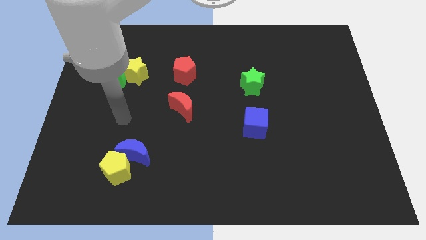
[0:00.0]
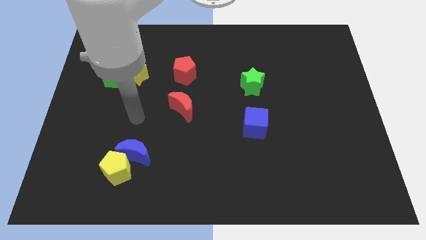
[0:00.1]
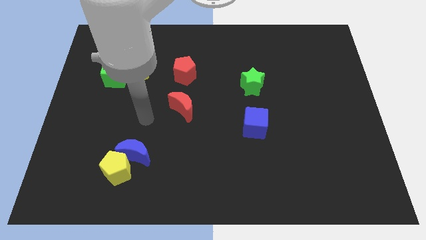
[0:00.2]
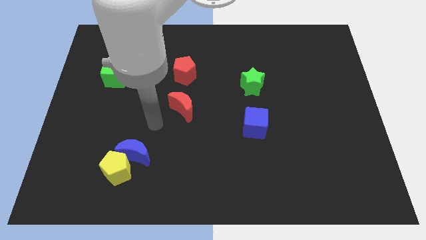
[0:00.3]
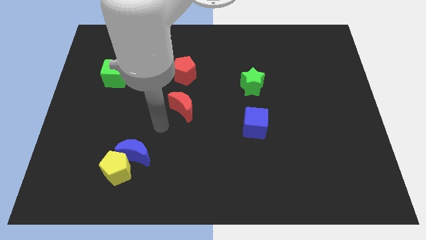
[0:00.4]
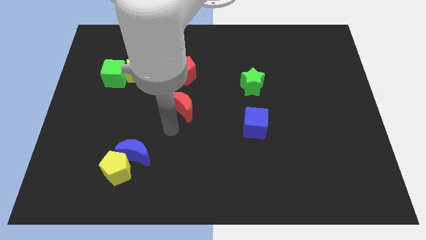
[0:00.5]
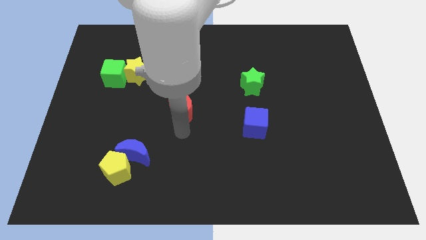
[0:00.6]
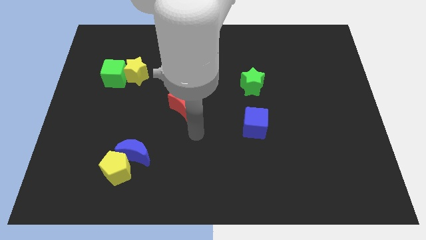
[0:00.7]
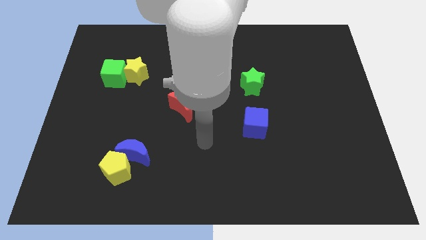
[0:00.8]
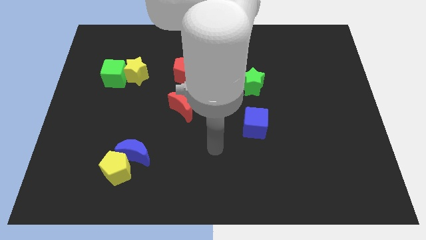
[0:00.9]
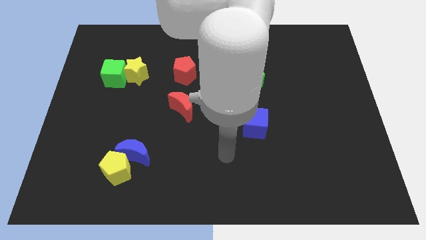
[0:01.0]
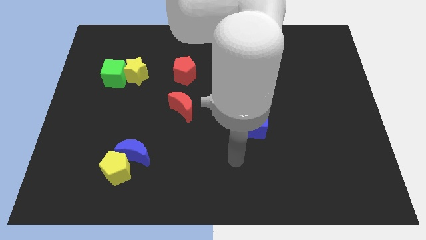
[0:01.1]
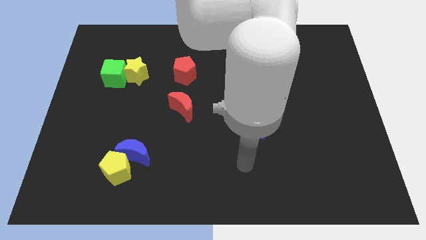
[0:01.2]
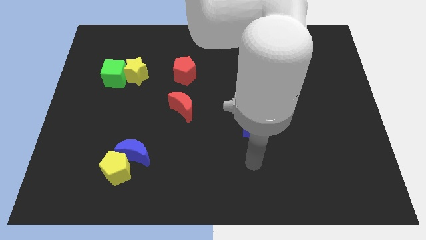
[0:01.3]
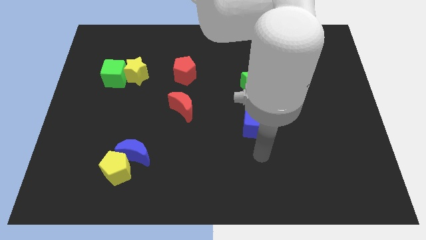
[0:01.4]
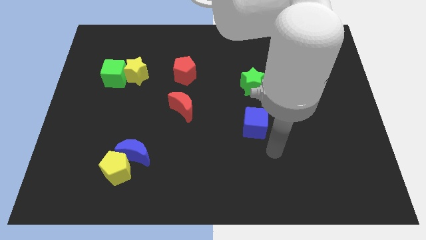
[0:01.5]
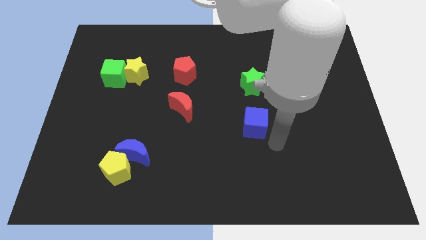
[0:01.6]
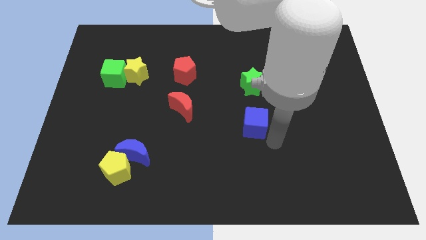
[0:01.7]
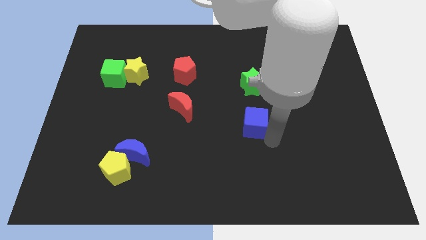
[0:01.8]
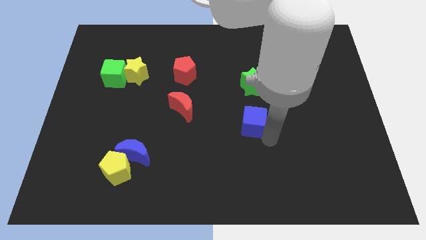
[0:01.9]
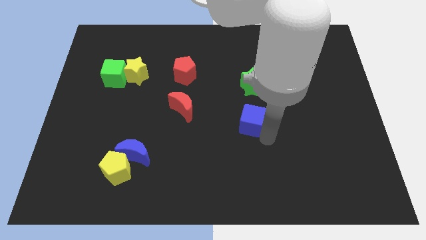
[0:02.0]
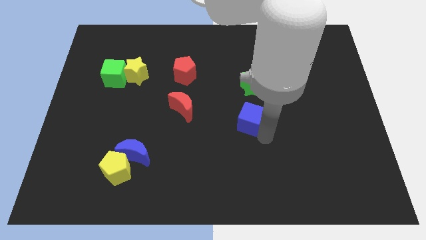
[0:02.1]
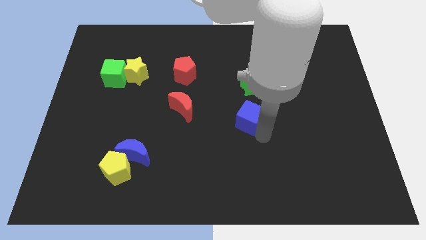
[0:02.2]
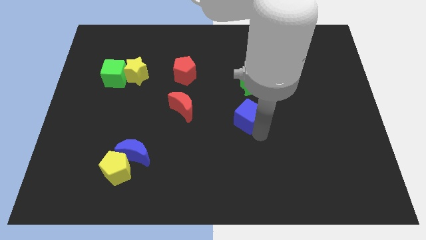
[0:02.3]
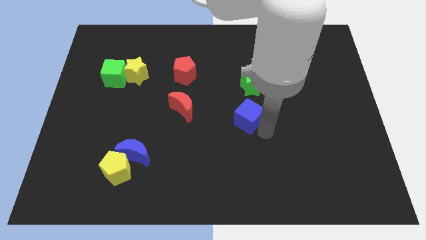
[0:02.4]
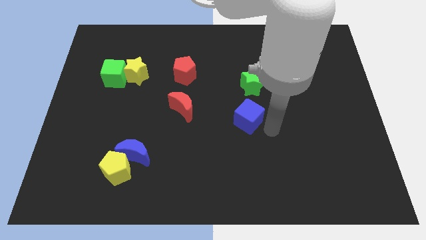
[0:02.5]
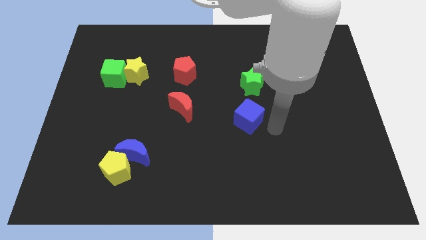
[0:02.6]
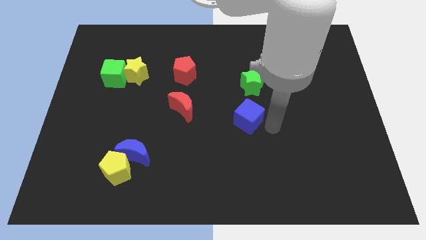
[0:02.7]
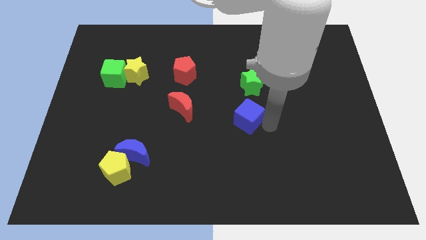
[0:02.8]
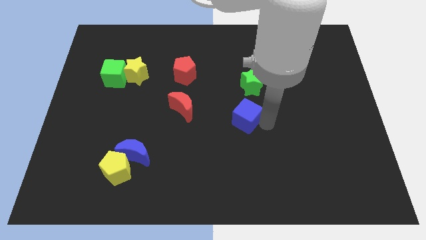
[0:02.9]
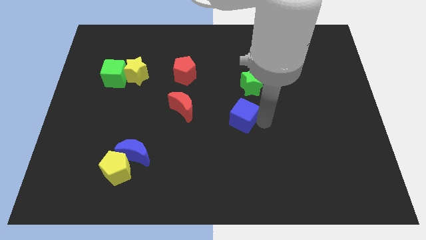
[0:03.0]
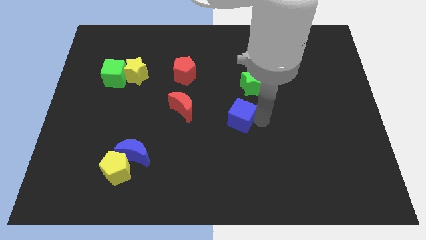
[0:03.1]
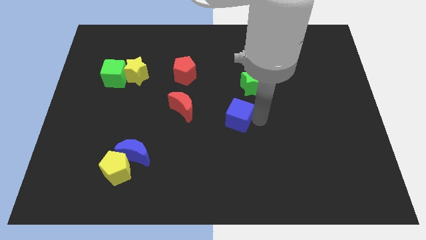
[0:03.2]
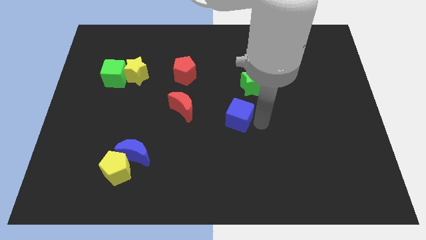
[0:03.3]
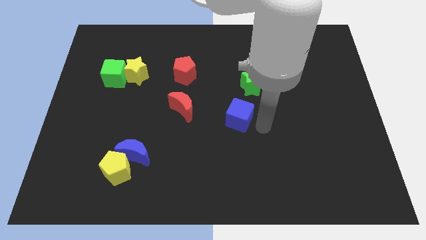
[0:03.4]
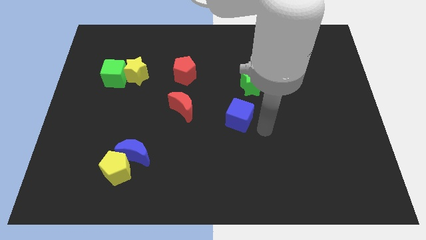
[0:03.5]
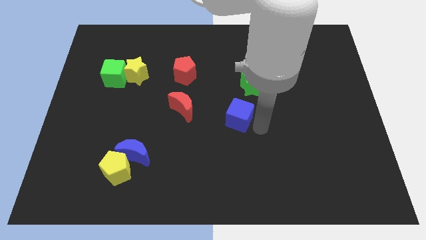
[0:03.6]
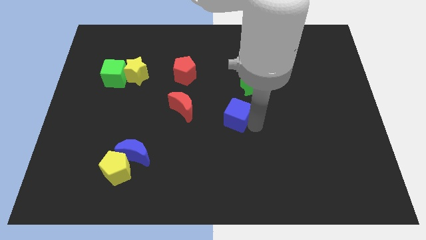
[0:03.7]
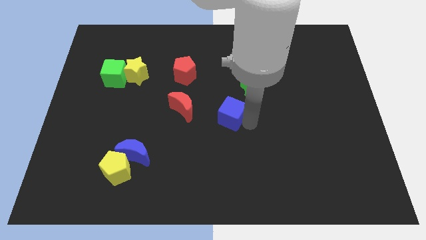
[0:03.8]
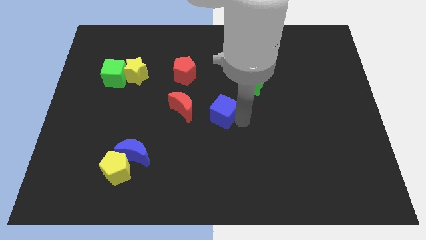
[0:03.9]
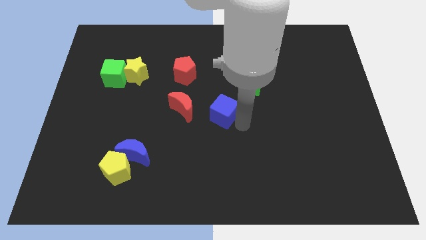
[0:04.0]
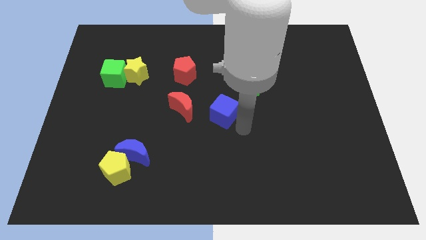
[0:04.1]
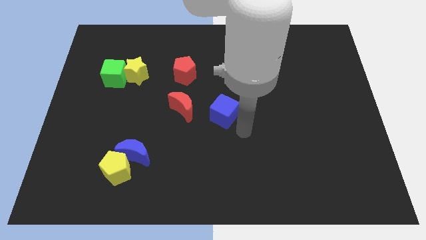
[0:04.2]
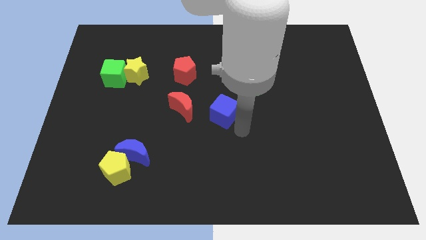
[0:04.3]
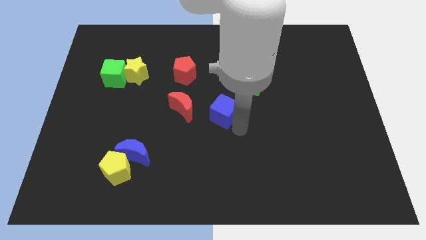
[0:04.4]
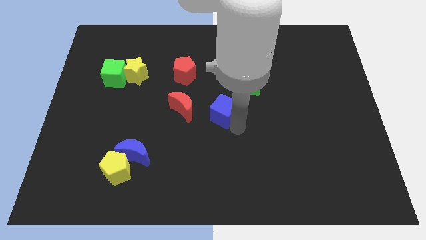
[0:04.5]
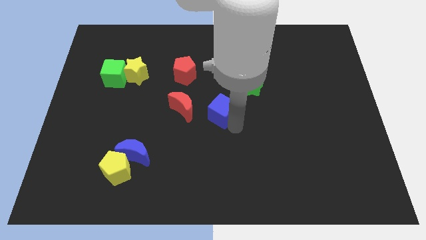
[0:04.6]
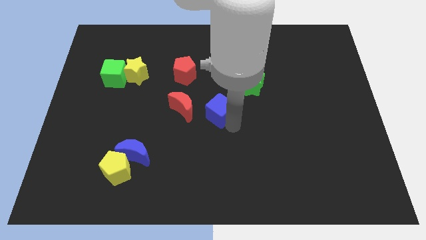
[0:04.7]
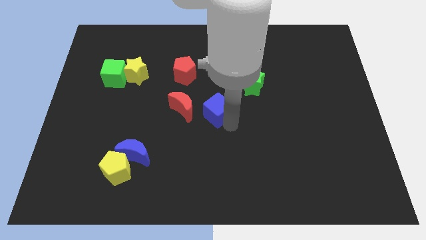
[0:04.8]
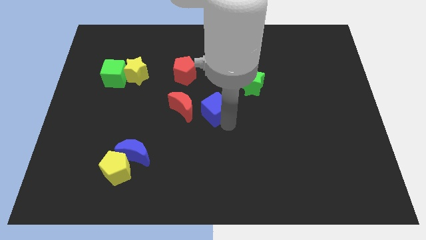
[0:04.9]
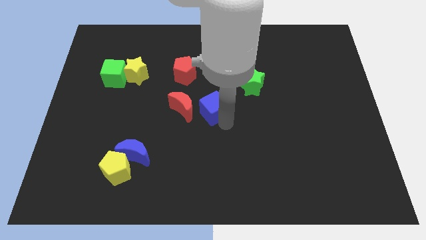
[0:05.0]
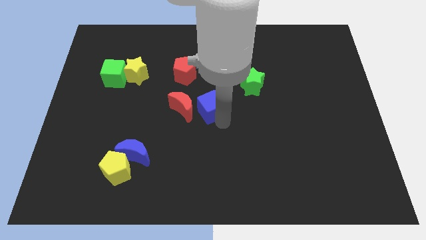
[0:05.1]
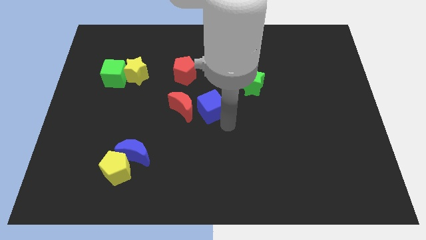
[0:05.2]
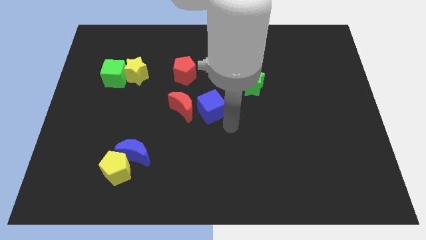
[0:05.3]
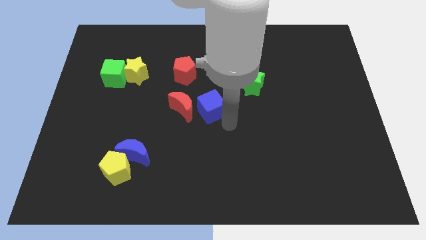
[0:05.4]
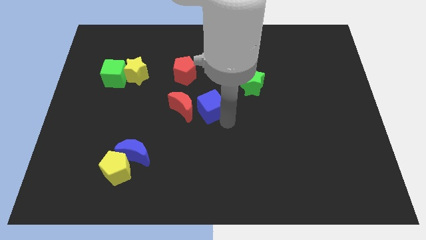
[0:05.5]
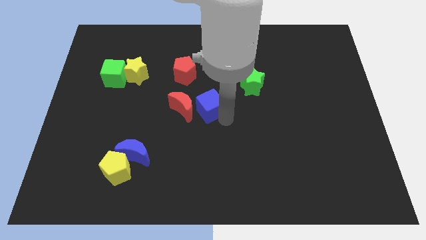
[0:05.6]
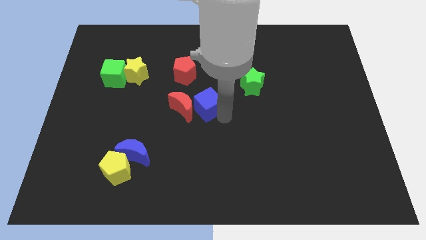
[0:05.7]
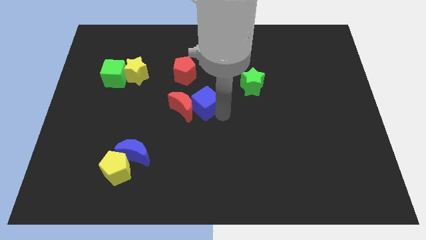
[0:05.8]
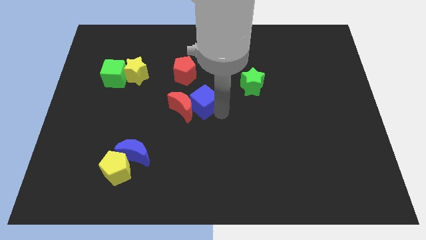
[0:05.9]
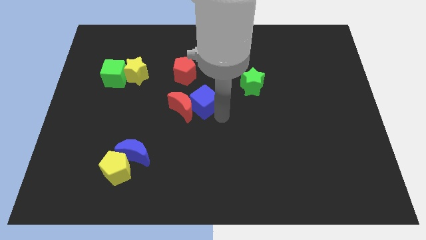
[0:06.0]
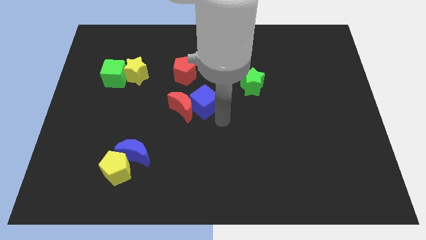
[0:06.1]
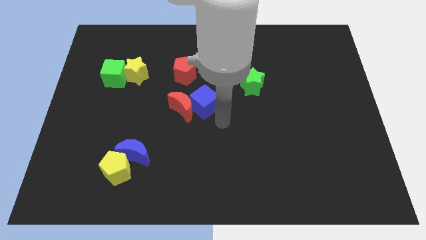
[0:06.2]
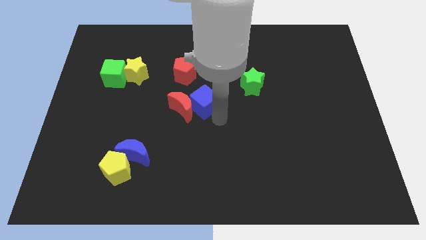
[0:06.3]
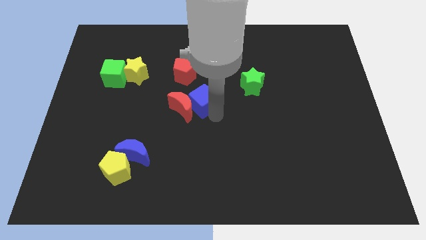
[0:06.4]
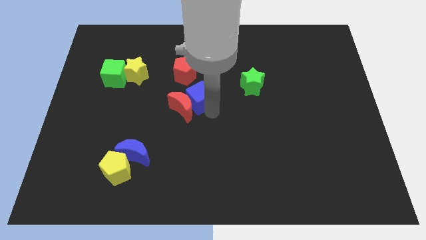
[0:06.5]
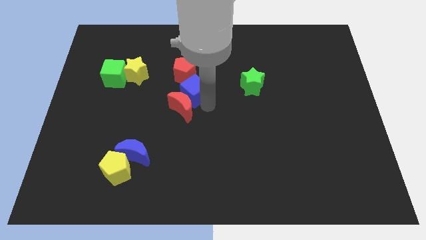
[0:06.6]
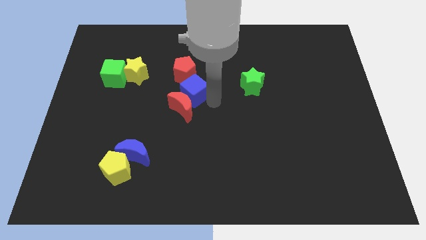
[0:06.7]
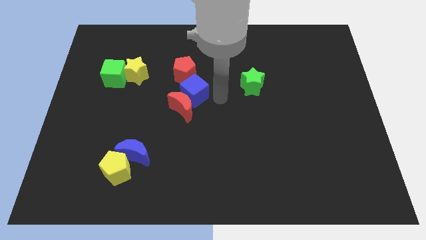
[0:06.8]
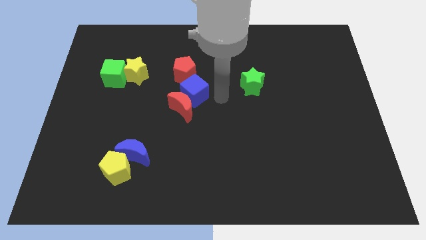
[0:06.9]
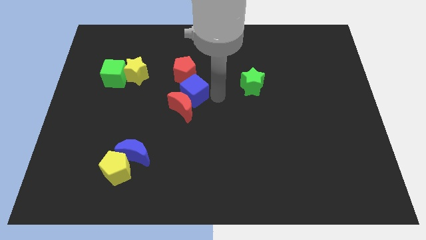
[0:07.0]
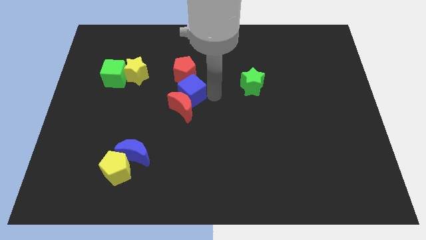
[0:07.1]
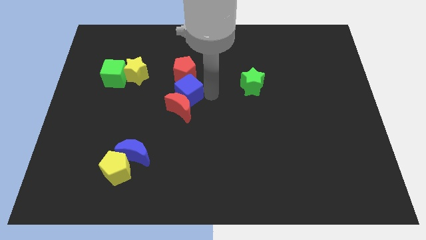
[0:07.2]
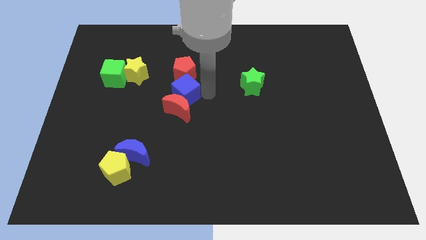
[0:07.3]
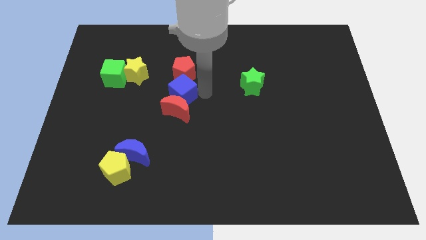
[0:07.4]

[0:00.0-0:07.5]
slide the blue cube to the bottom left of the red pentagon

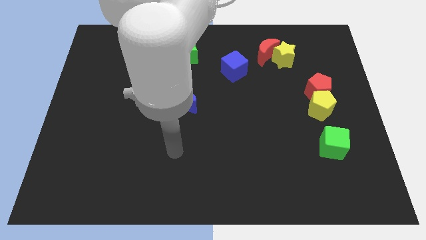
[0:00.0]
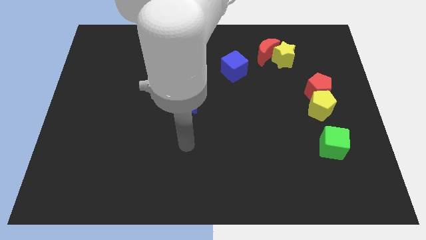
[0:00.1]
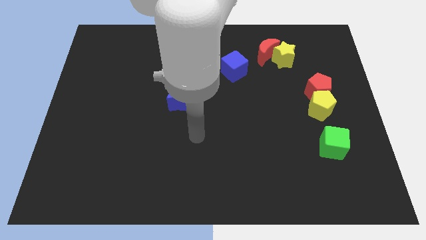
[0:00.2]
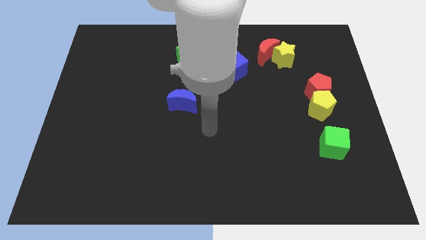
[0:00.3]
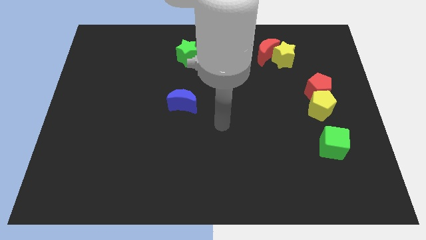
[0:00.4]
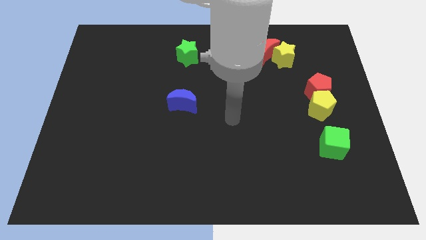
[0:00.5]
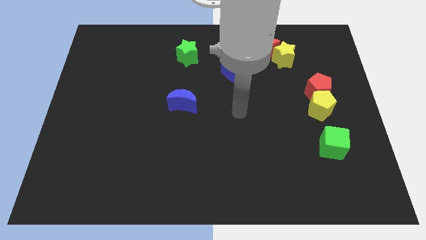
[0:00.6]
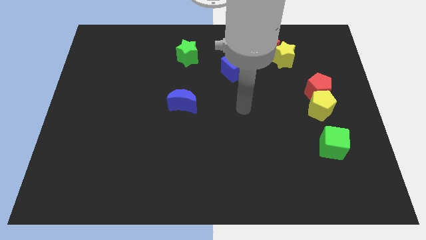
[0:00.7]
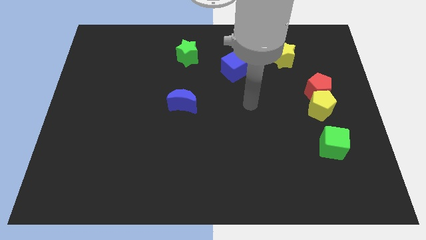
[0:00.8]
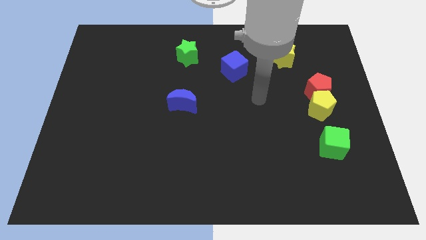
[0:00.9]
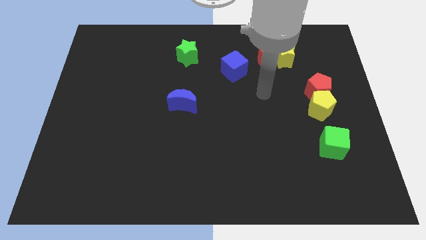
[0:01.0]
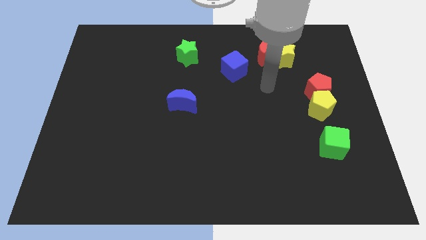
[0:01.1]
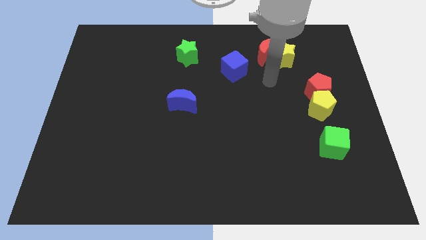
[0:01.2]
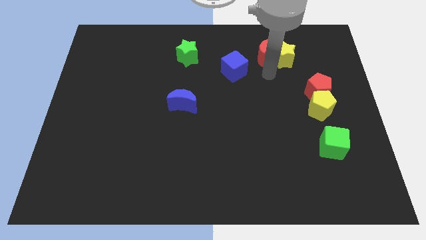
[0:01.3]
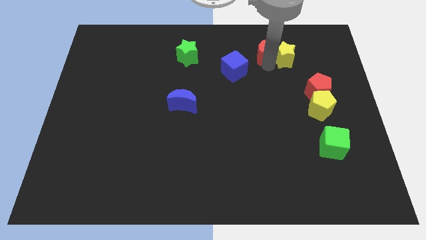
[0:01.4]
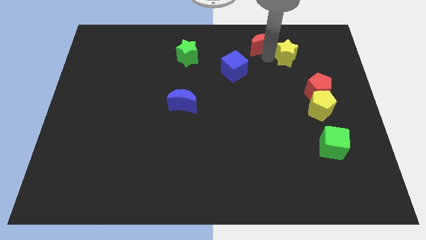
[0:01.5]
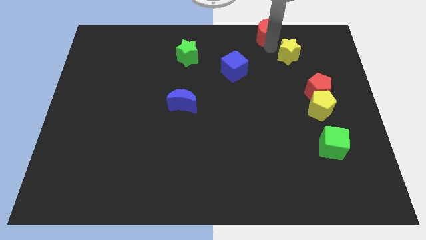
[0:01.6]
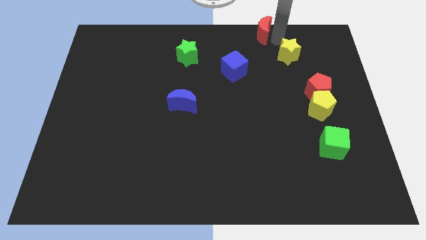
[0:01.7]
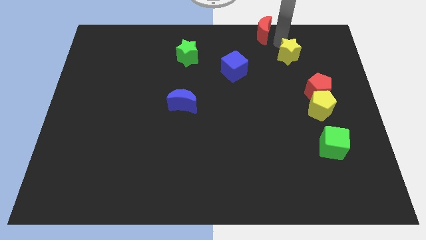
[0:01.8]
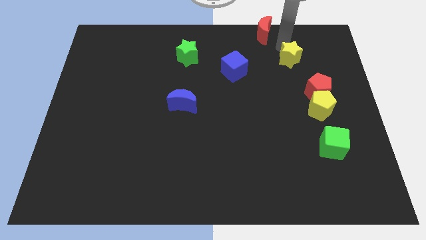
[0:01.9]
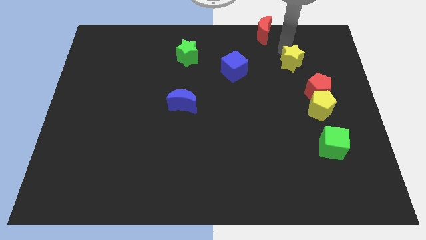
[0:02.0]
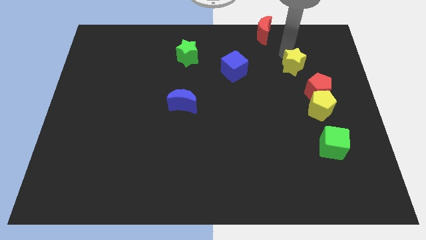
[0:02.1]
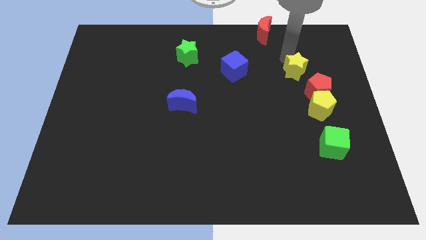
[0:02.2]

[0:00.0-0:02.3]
put the yellow star above the yellow pentagon
